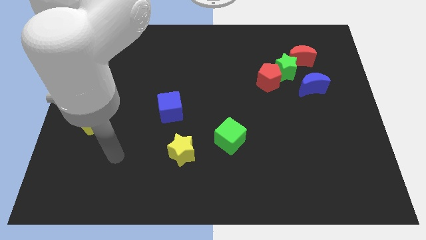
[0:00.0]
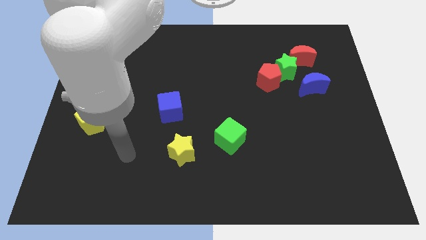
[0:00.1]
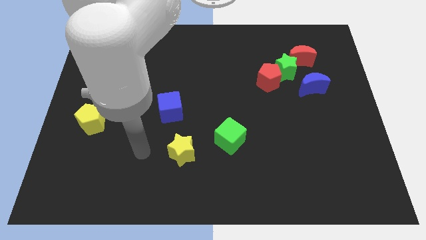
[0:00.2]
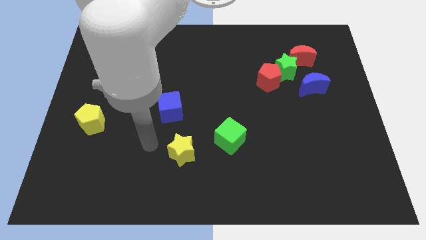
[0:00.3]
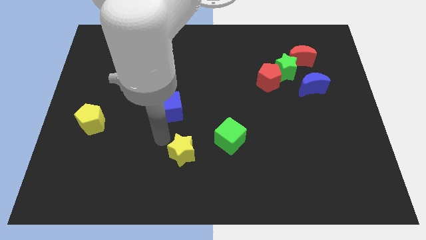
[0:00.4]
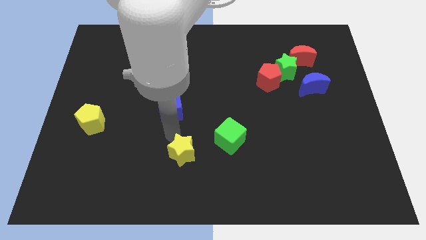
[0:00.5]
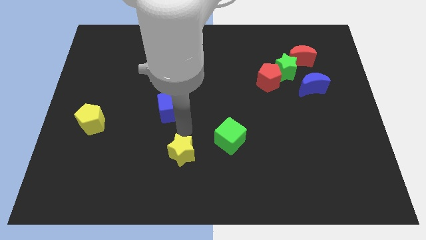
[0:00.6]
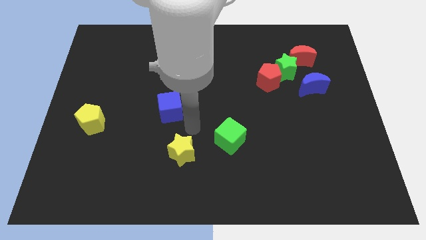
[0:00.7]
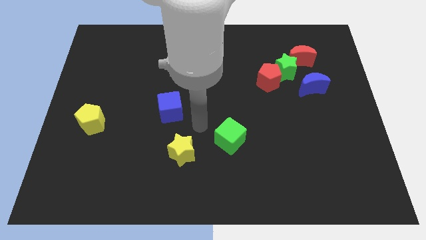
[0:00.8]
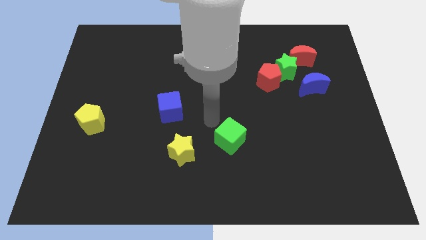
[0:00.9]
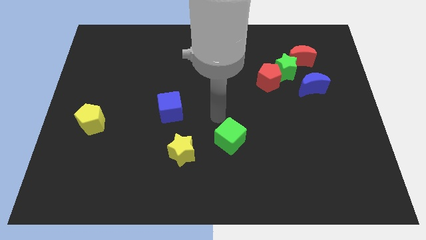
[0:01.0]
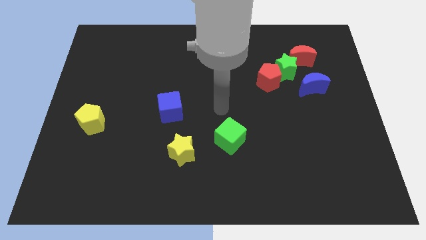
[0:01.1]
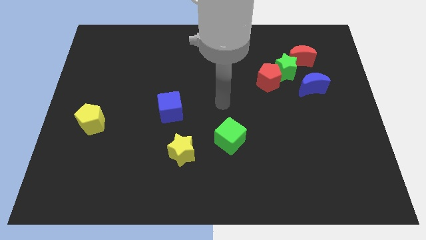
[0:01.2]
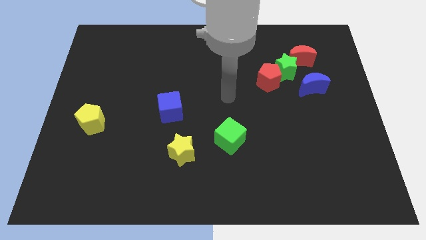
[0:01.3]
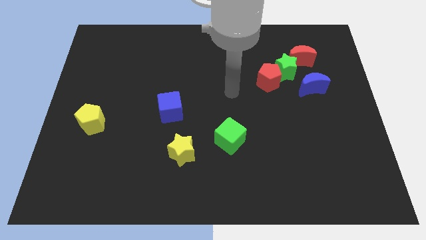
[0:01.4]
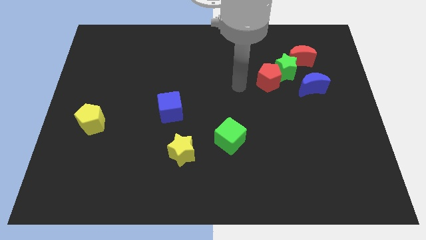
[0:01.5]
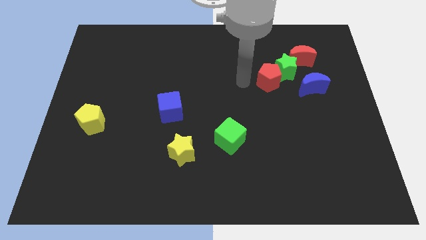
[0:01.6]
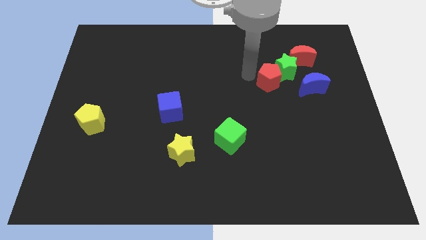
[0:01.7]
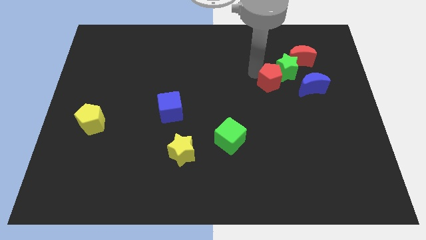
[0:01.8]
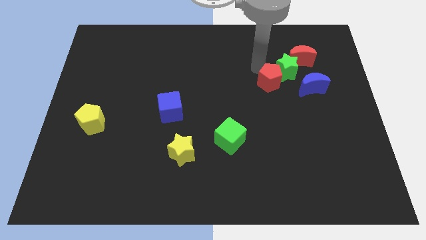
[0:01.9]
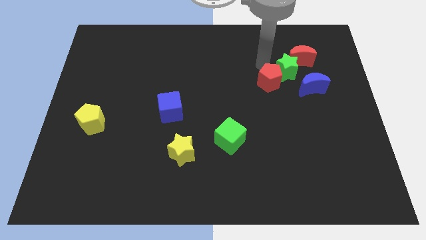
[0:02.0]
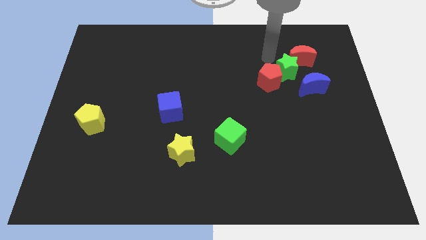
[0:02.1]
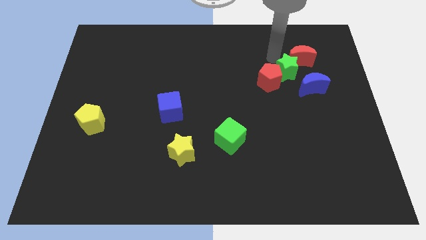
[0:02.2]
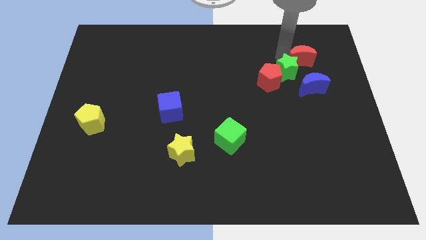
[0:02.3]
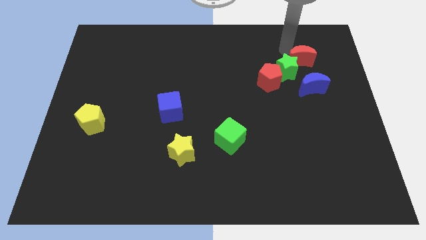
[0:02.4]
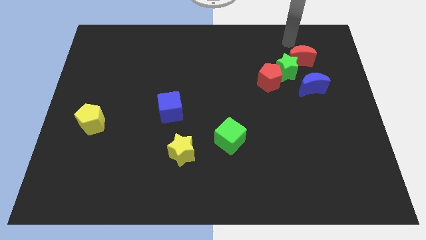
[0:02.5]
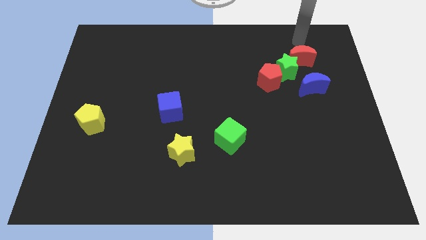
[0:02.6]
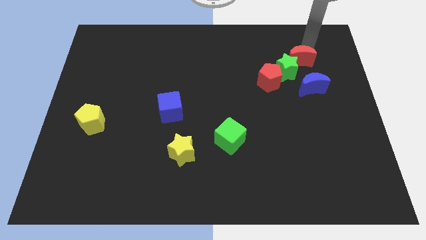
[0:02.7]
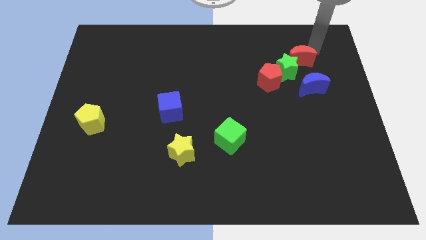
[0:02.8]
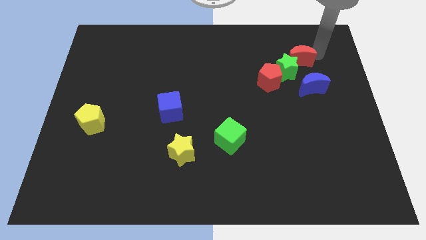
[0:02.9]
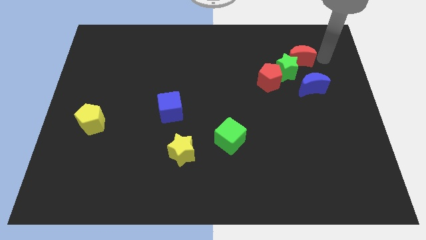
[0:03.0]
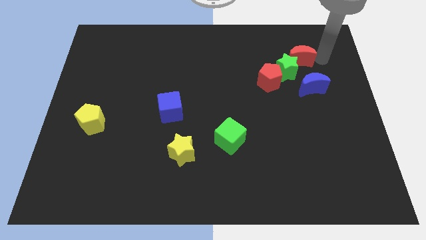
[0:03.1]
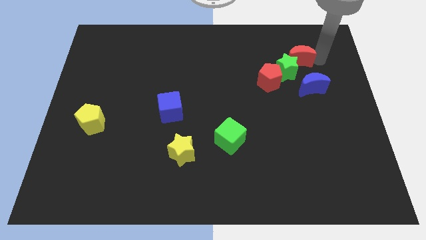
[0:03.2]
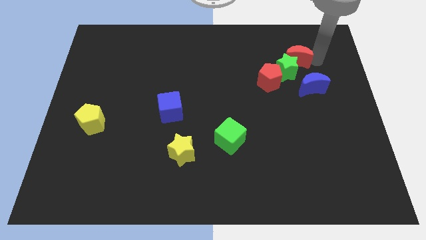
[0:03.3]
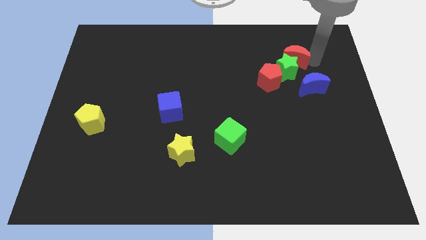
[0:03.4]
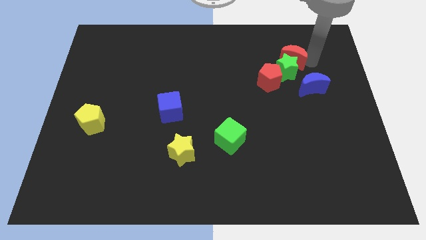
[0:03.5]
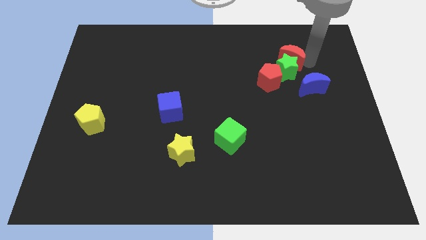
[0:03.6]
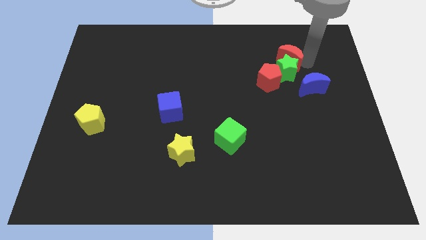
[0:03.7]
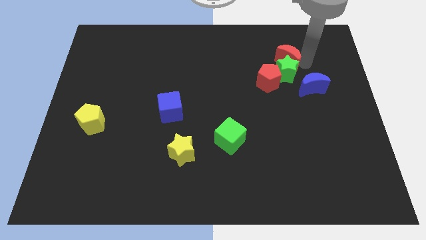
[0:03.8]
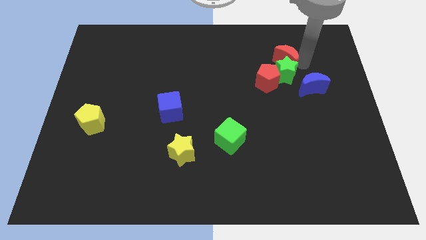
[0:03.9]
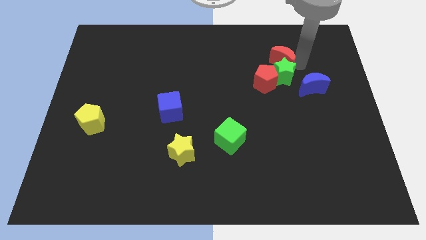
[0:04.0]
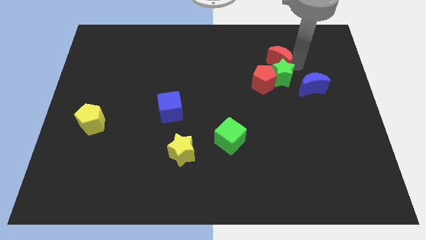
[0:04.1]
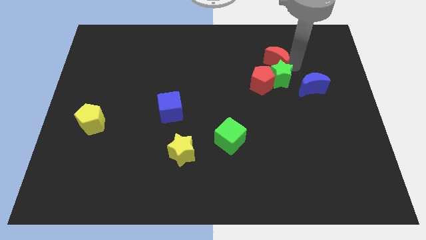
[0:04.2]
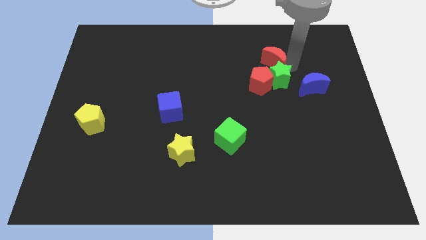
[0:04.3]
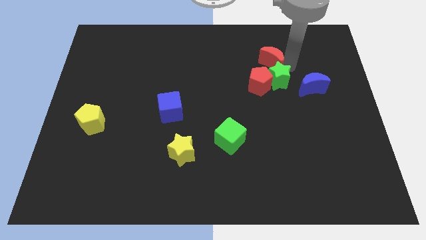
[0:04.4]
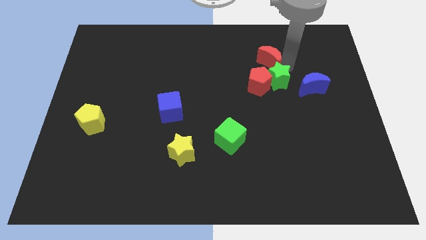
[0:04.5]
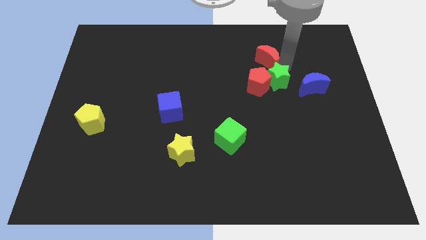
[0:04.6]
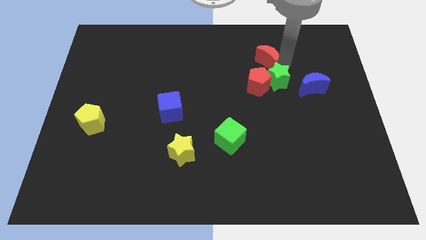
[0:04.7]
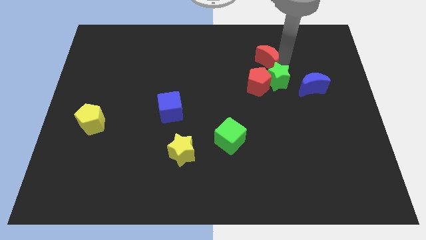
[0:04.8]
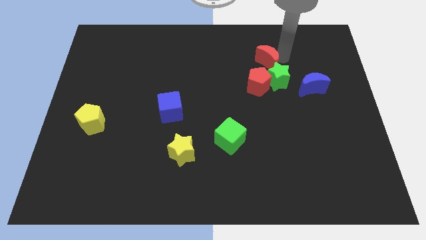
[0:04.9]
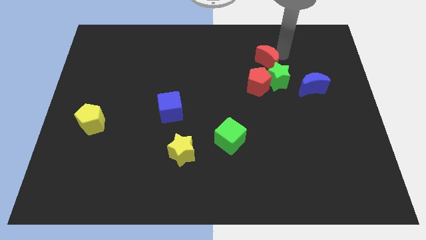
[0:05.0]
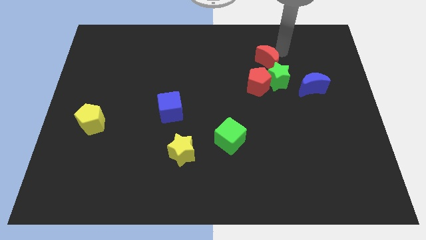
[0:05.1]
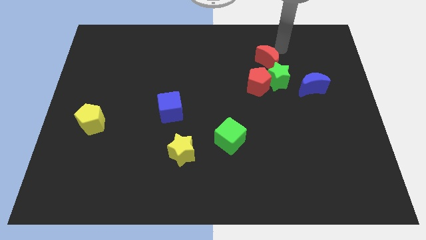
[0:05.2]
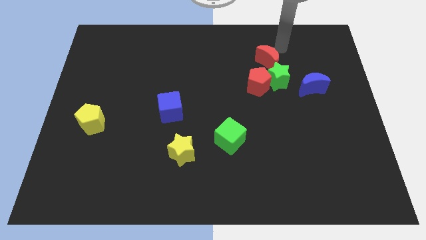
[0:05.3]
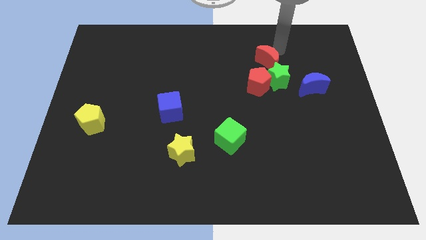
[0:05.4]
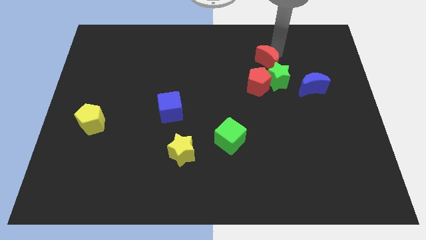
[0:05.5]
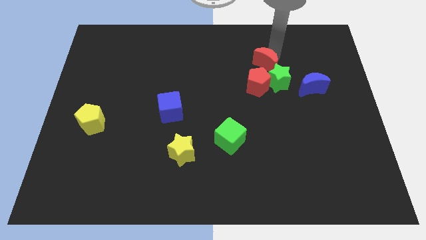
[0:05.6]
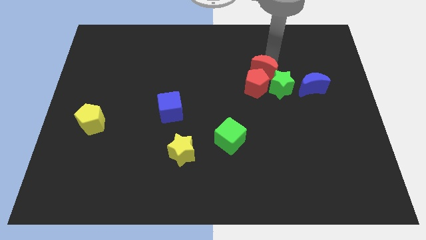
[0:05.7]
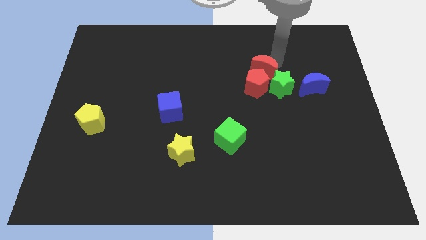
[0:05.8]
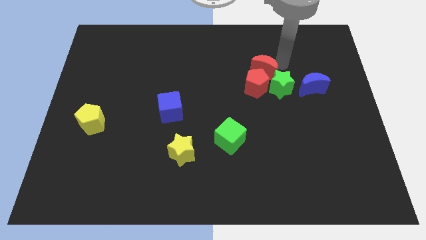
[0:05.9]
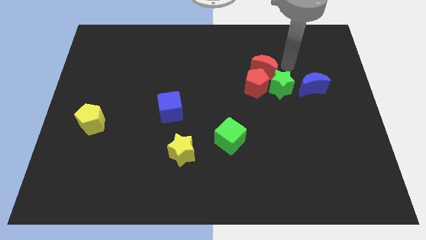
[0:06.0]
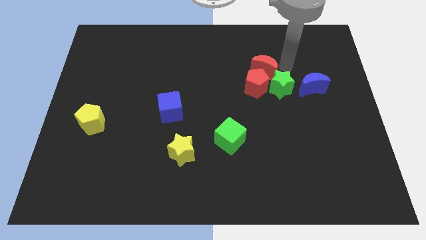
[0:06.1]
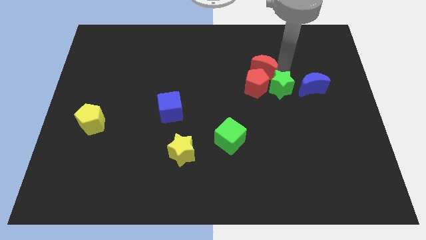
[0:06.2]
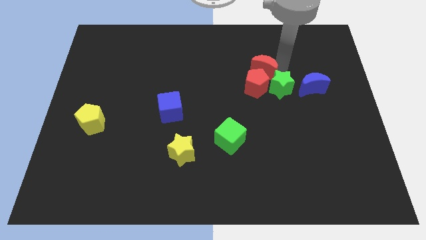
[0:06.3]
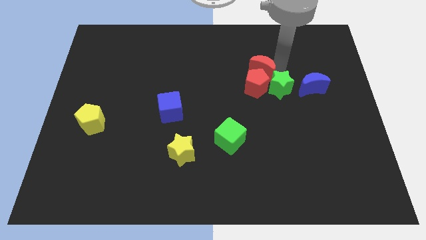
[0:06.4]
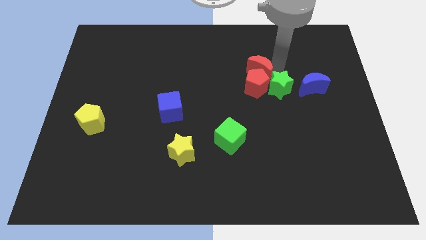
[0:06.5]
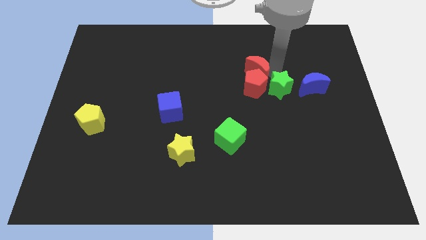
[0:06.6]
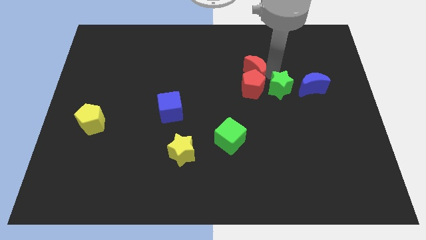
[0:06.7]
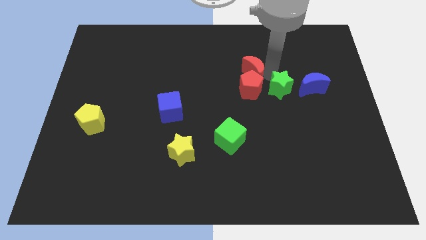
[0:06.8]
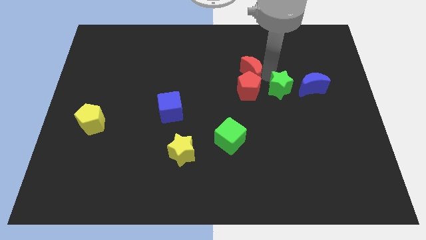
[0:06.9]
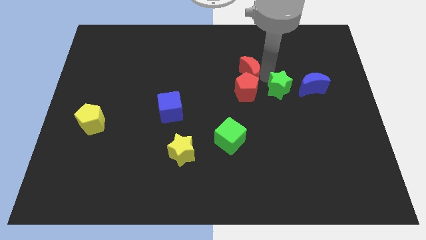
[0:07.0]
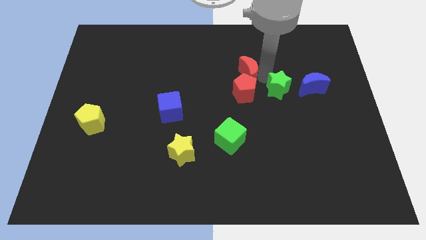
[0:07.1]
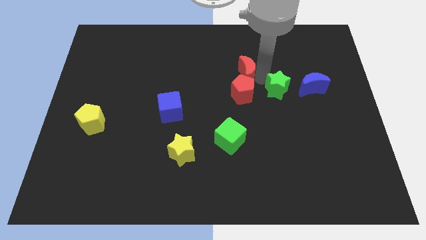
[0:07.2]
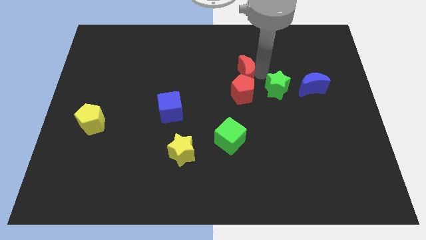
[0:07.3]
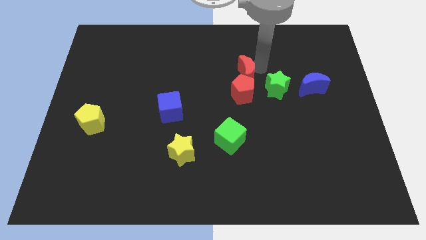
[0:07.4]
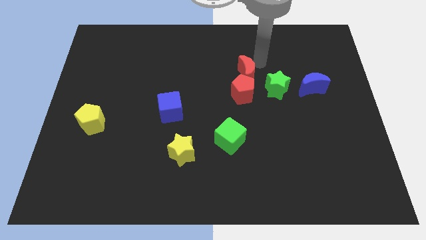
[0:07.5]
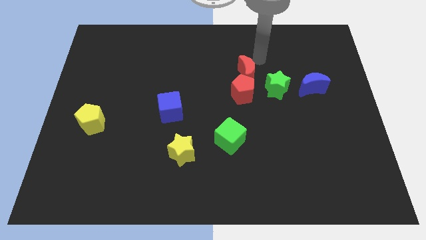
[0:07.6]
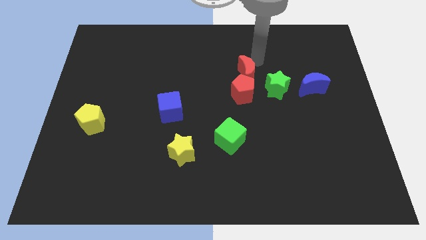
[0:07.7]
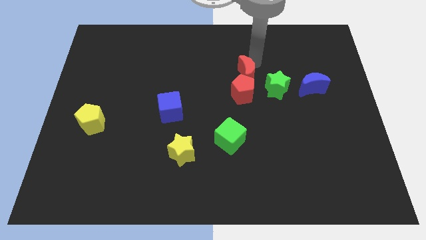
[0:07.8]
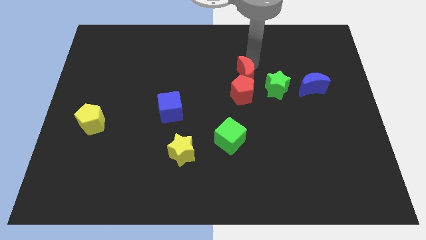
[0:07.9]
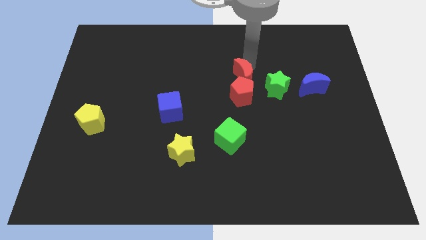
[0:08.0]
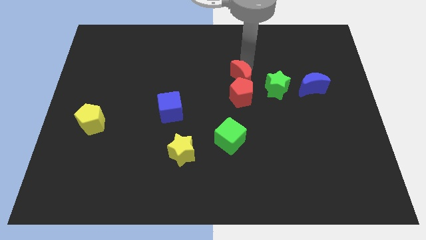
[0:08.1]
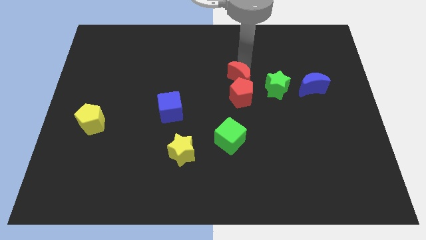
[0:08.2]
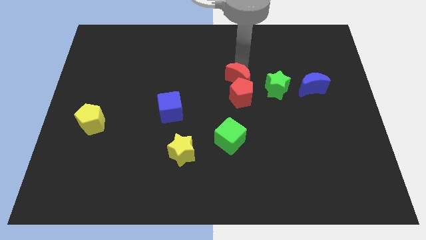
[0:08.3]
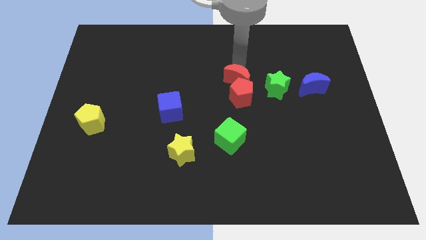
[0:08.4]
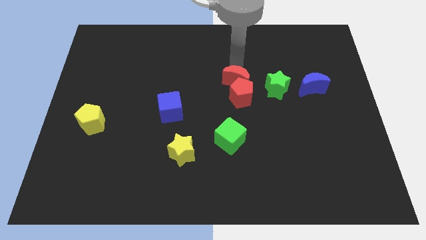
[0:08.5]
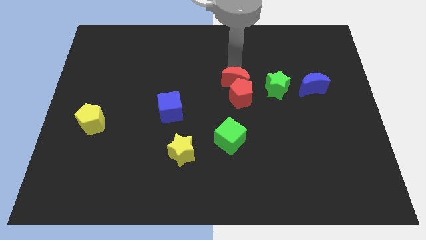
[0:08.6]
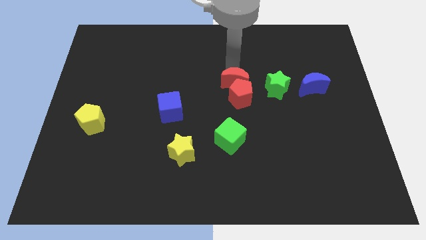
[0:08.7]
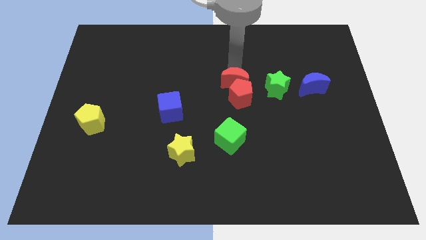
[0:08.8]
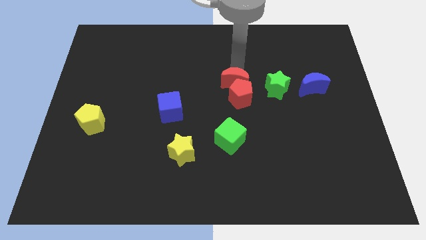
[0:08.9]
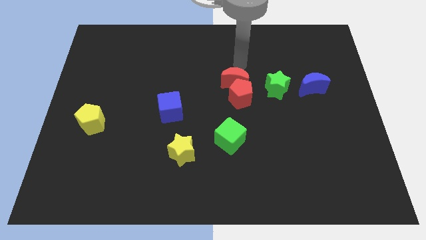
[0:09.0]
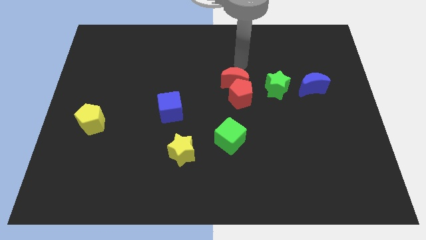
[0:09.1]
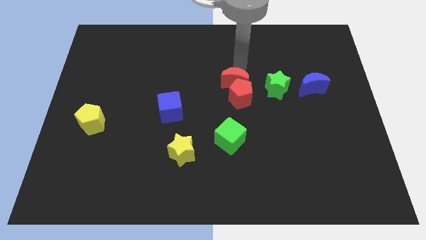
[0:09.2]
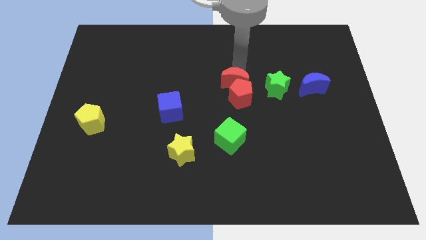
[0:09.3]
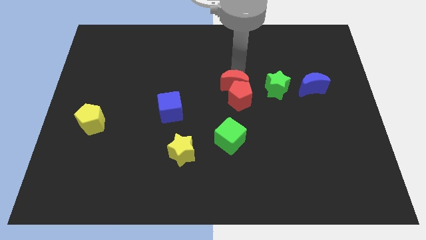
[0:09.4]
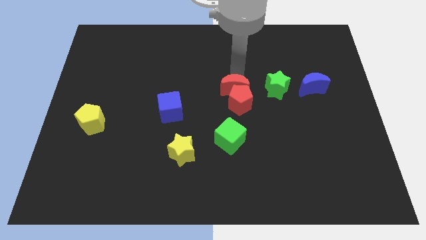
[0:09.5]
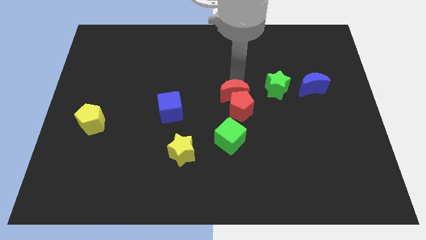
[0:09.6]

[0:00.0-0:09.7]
push the red moon diagonally down and left
